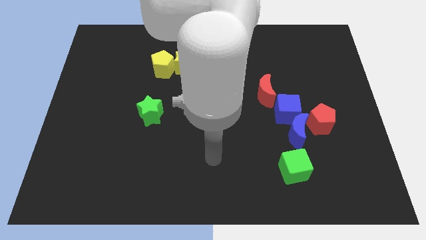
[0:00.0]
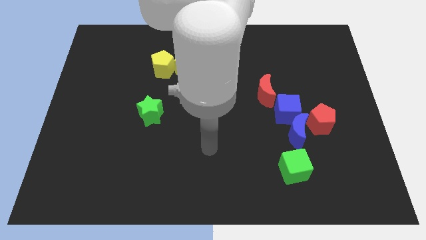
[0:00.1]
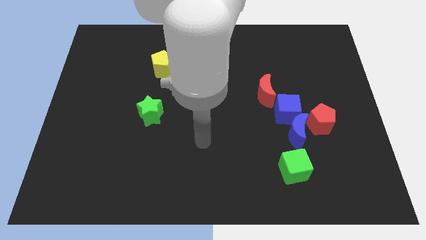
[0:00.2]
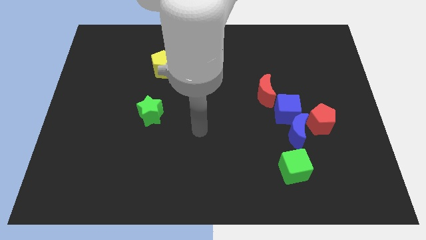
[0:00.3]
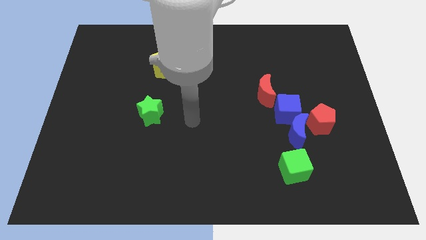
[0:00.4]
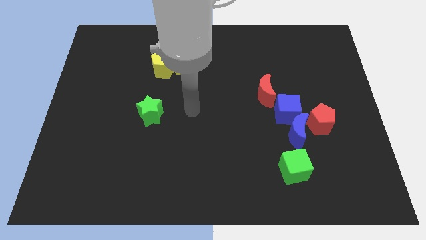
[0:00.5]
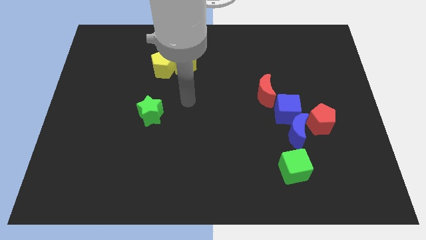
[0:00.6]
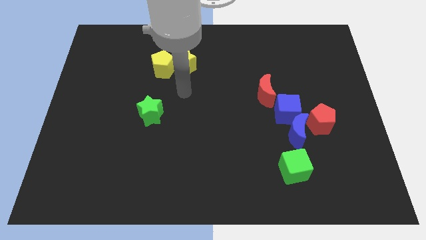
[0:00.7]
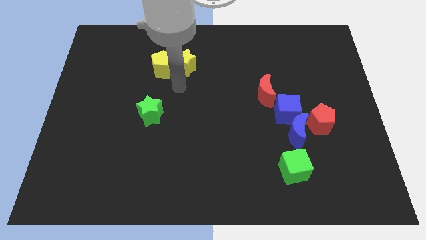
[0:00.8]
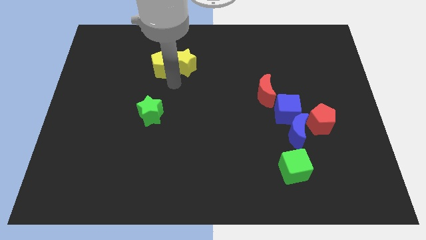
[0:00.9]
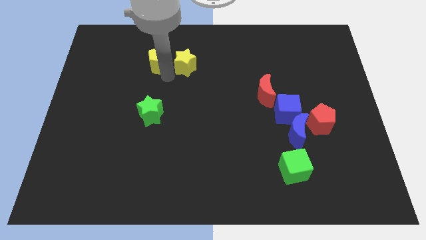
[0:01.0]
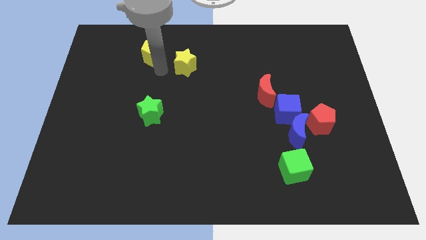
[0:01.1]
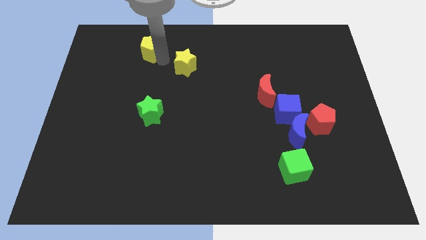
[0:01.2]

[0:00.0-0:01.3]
pull the yellow star apart from the yellow pentagon

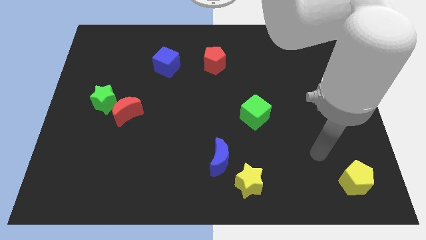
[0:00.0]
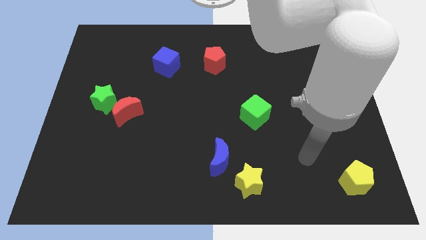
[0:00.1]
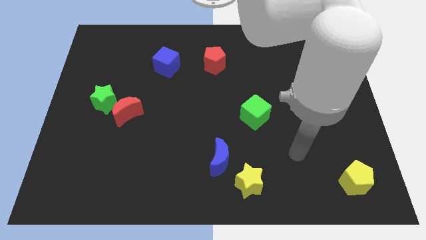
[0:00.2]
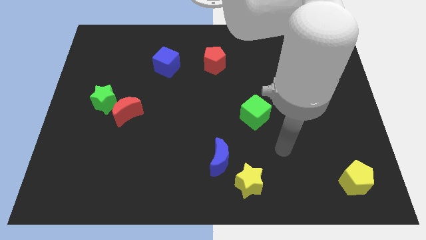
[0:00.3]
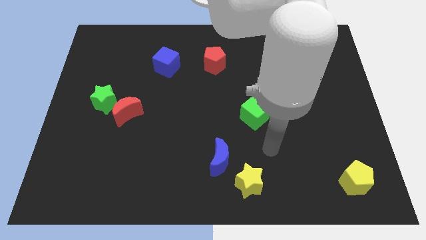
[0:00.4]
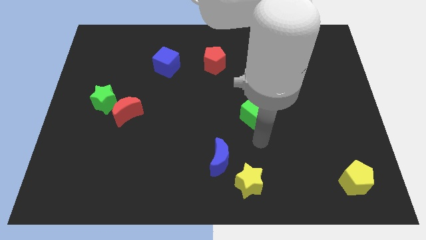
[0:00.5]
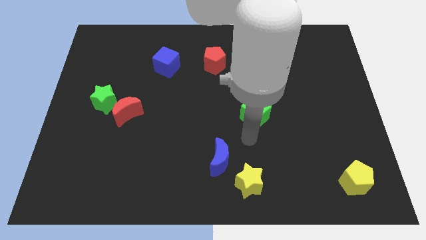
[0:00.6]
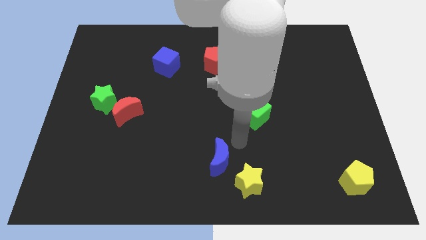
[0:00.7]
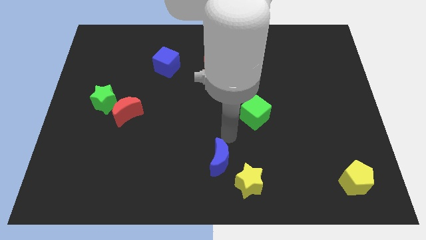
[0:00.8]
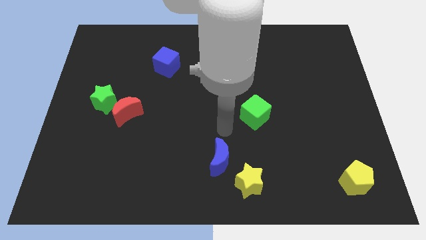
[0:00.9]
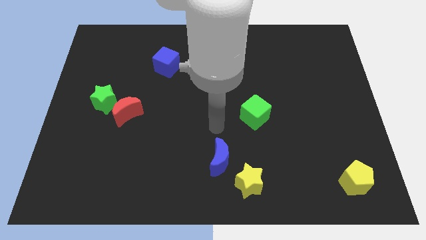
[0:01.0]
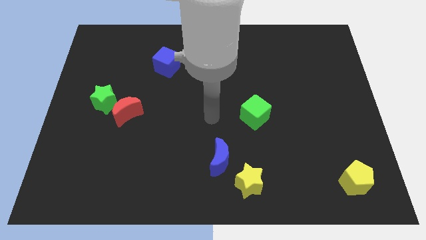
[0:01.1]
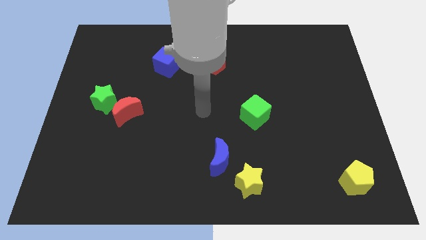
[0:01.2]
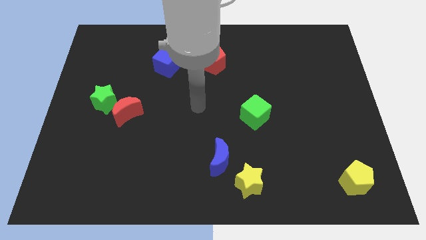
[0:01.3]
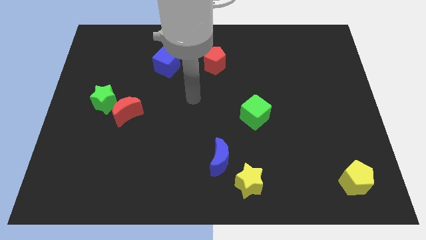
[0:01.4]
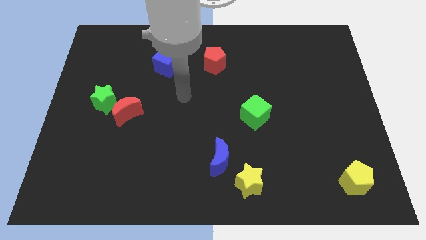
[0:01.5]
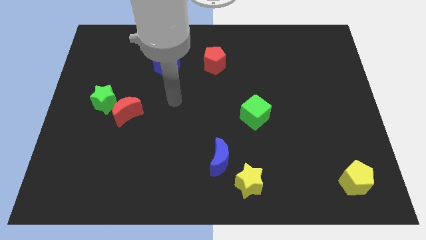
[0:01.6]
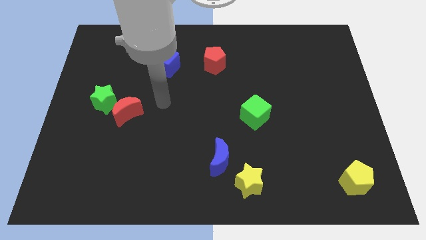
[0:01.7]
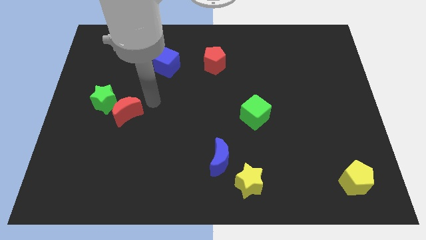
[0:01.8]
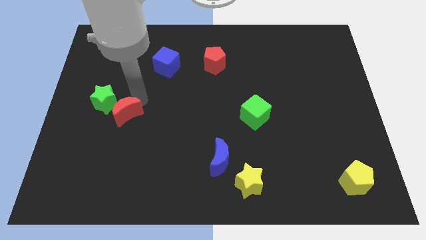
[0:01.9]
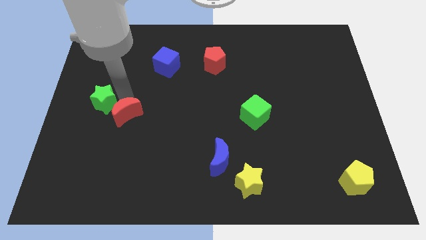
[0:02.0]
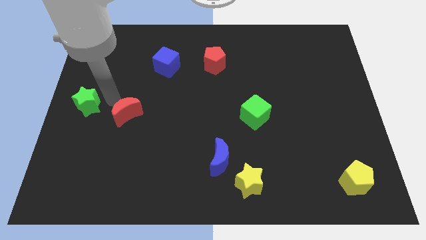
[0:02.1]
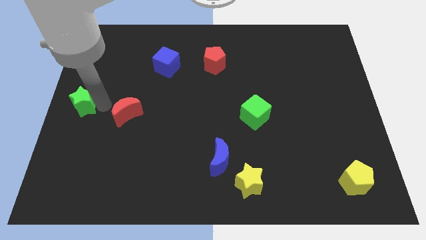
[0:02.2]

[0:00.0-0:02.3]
separate the red moon from the green star

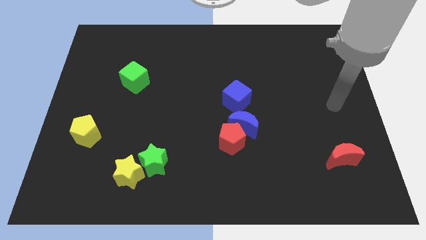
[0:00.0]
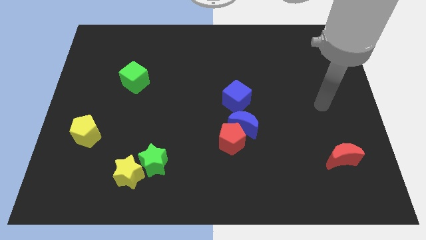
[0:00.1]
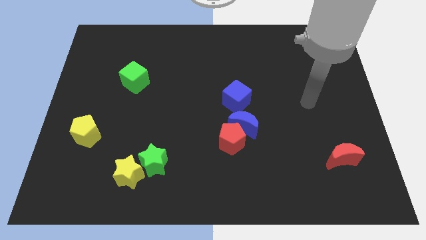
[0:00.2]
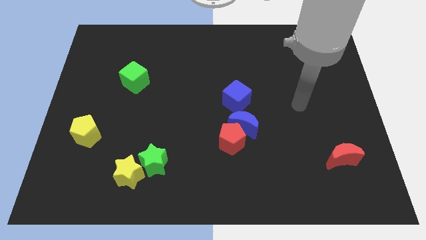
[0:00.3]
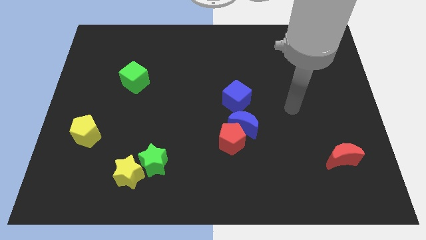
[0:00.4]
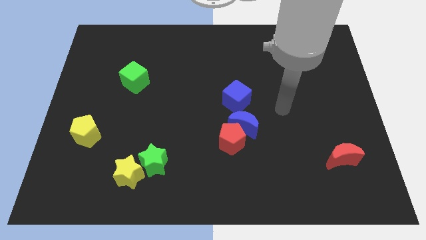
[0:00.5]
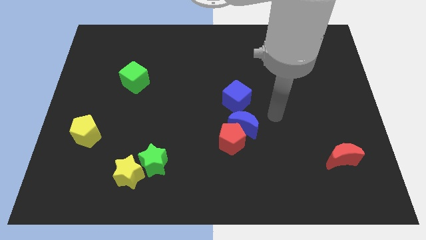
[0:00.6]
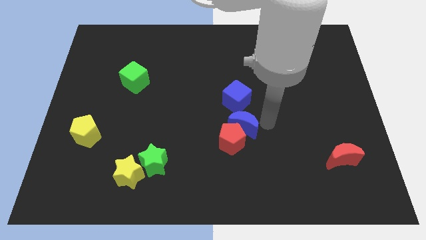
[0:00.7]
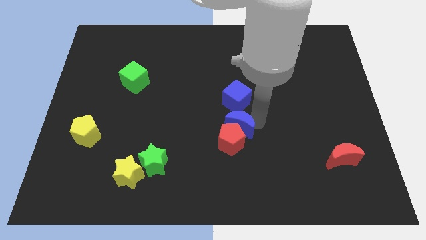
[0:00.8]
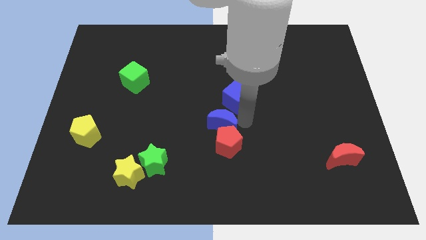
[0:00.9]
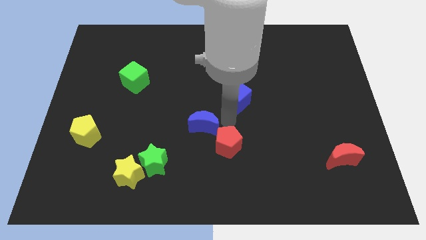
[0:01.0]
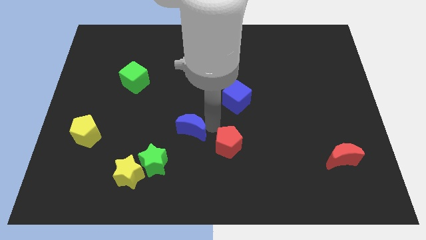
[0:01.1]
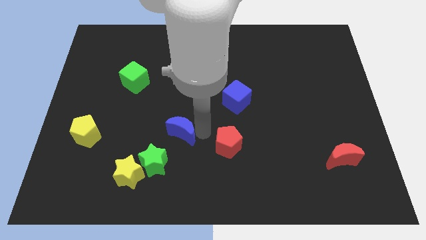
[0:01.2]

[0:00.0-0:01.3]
separate the red pentagon from the blue moon

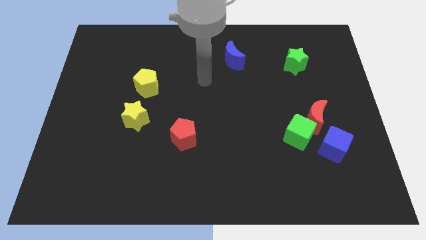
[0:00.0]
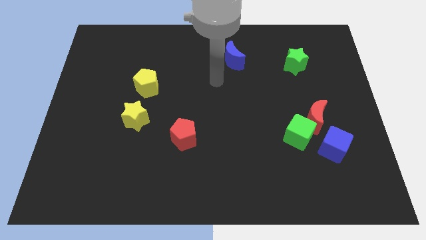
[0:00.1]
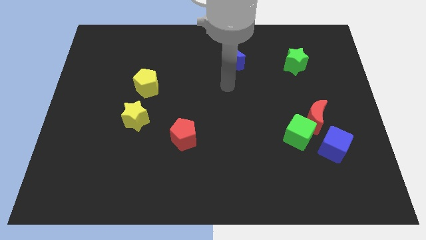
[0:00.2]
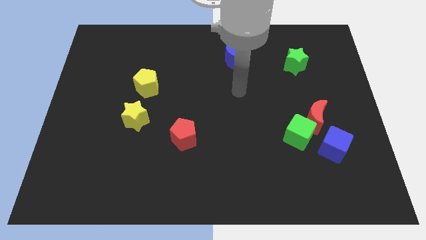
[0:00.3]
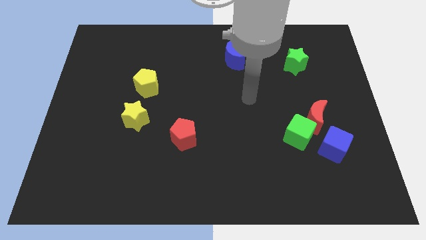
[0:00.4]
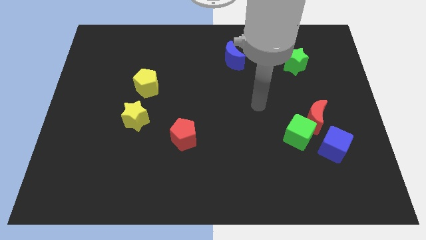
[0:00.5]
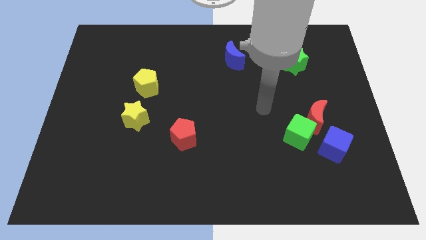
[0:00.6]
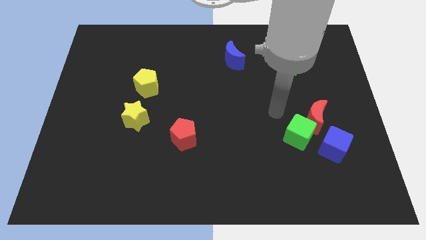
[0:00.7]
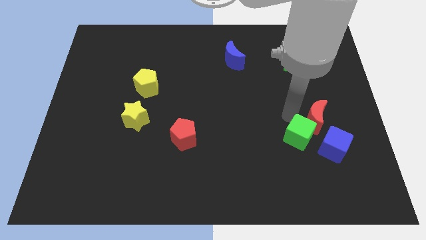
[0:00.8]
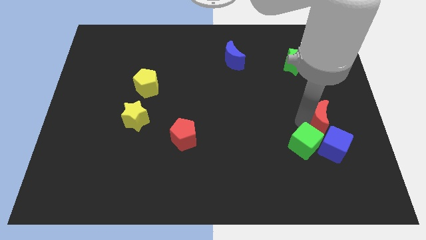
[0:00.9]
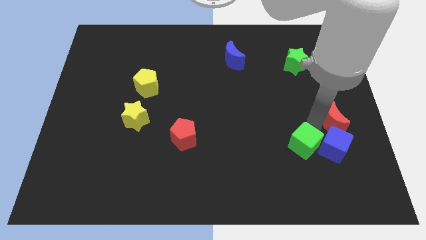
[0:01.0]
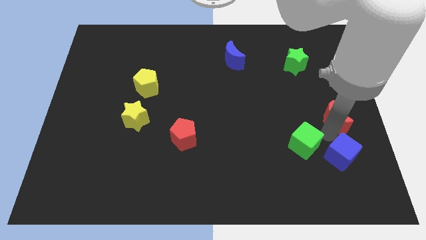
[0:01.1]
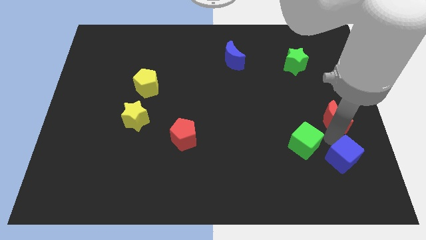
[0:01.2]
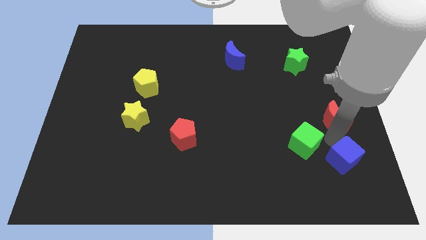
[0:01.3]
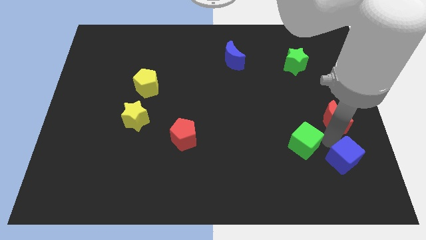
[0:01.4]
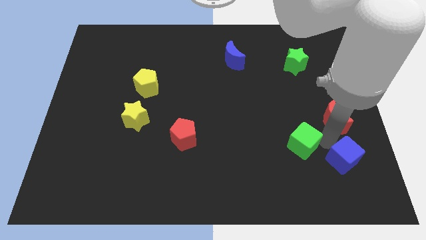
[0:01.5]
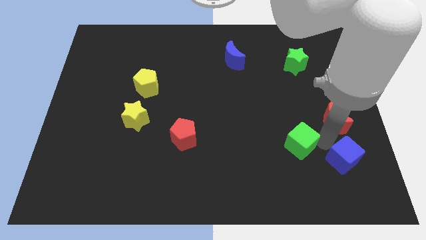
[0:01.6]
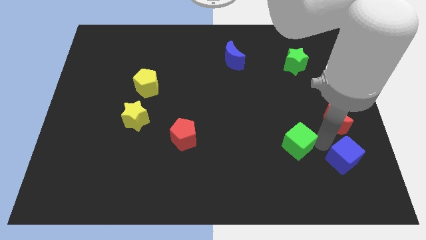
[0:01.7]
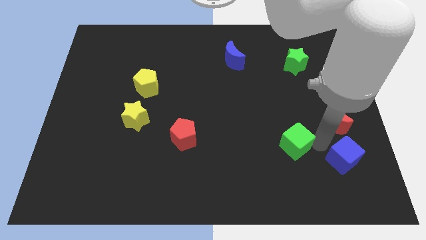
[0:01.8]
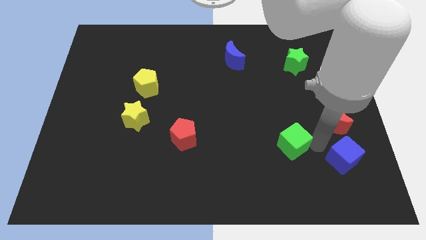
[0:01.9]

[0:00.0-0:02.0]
move the green cube away from the red moon and blue cube

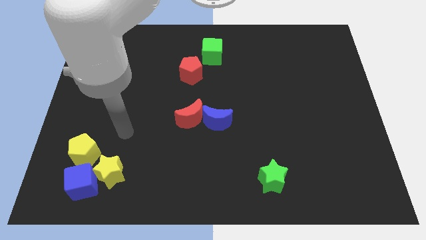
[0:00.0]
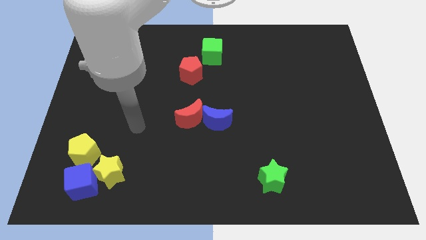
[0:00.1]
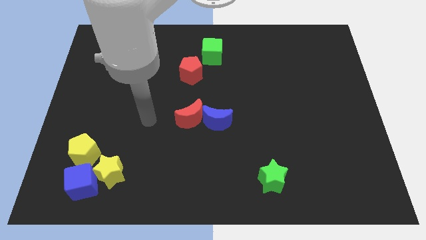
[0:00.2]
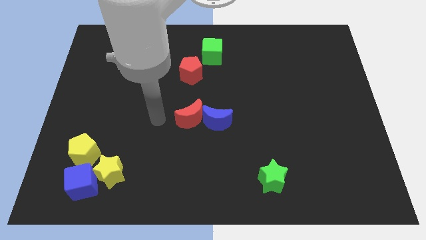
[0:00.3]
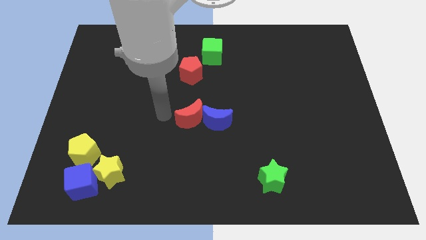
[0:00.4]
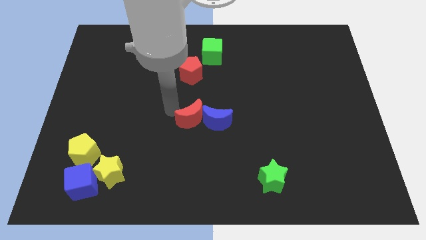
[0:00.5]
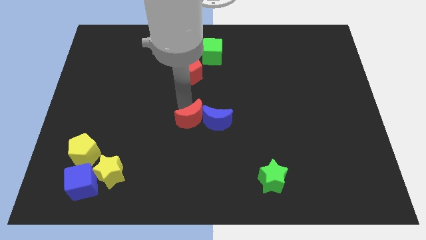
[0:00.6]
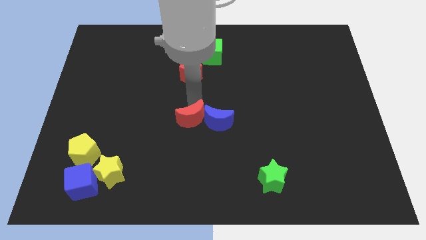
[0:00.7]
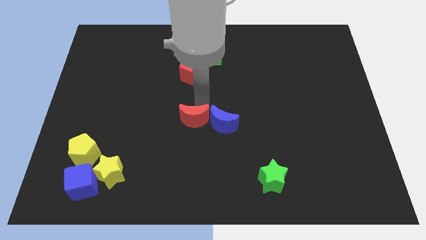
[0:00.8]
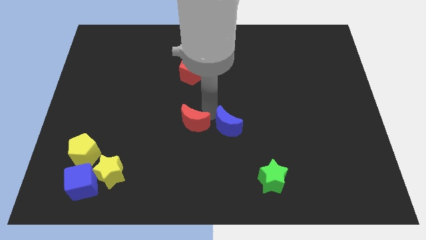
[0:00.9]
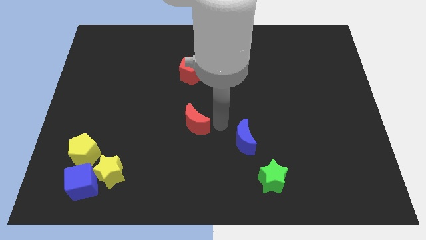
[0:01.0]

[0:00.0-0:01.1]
pull the red moon apart from the blue moon

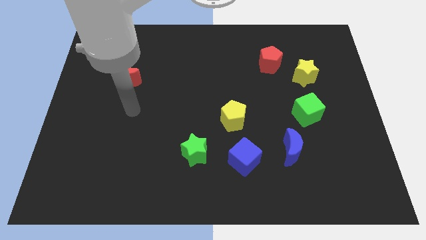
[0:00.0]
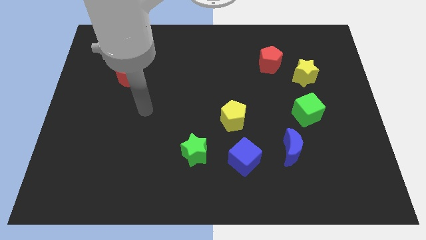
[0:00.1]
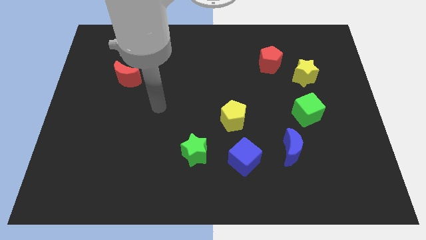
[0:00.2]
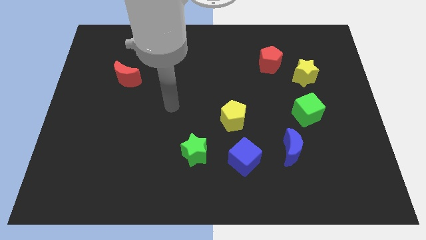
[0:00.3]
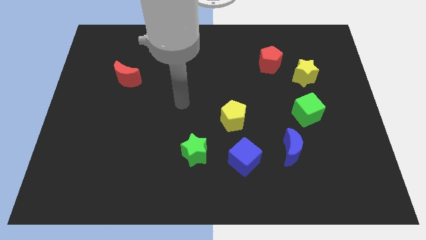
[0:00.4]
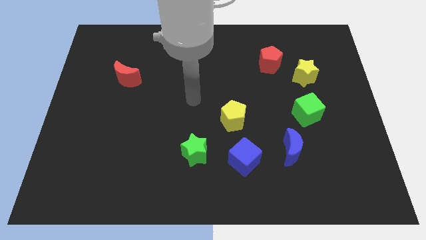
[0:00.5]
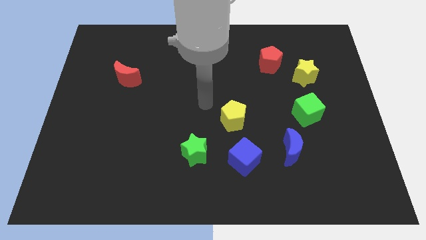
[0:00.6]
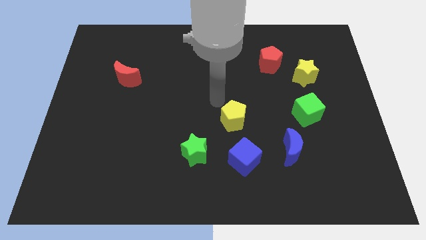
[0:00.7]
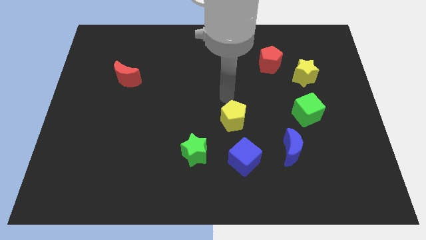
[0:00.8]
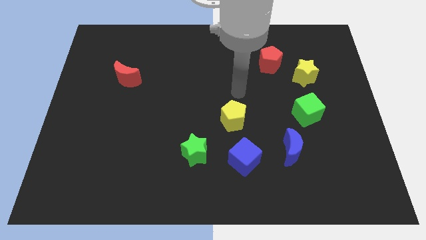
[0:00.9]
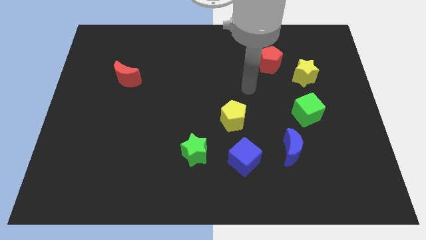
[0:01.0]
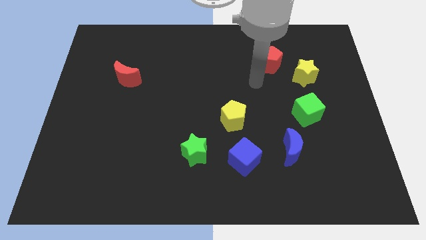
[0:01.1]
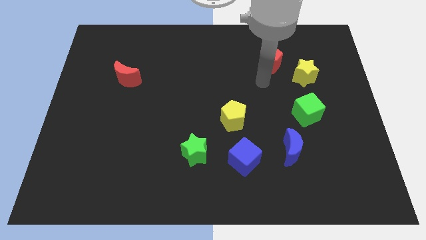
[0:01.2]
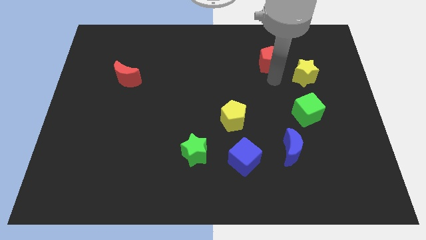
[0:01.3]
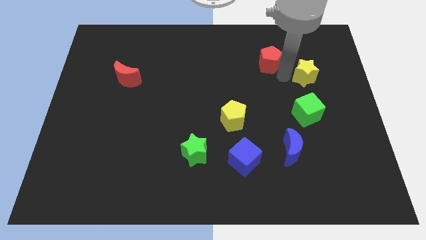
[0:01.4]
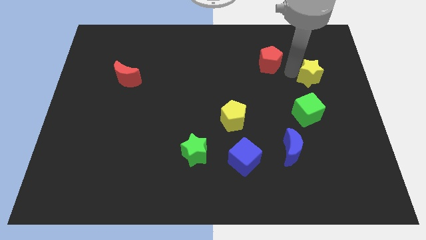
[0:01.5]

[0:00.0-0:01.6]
move the red pentagon away from the yellow star
